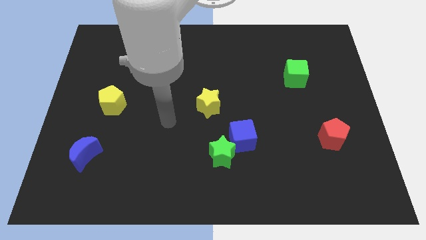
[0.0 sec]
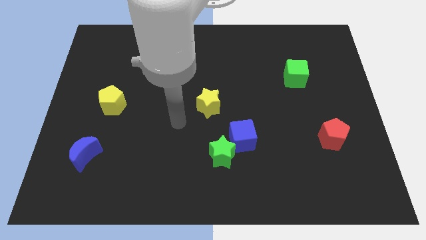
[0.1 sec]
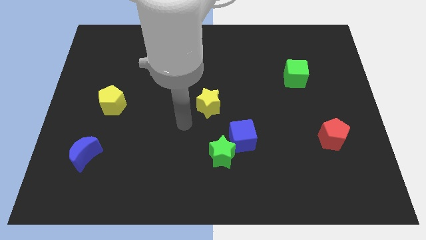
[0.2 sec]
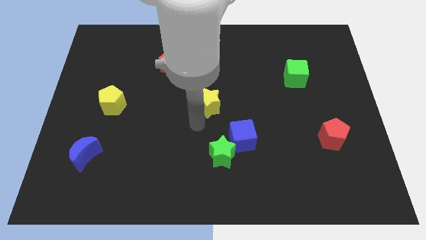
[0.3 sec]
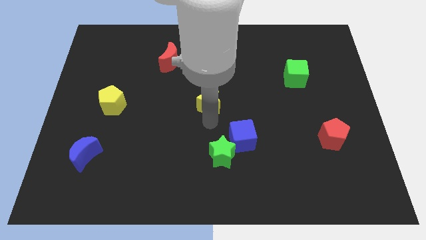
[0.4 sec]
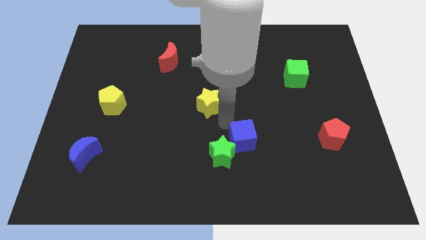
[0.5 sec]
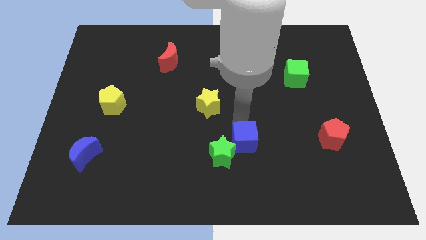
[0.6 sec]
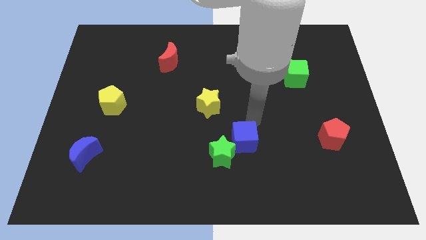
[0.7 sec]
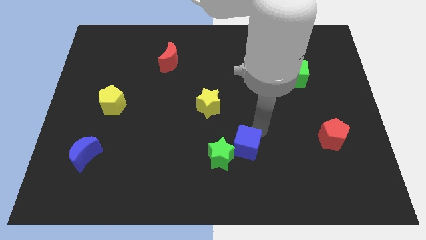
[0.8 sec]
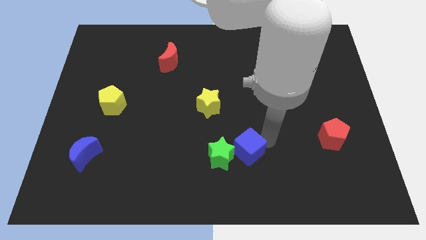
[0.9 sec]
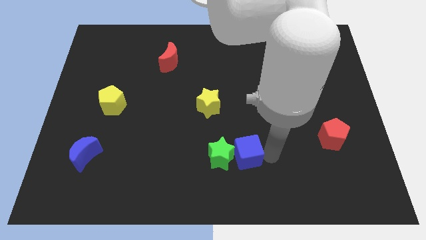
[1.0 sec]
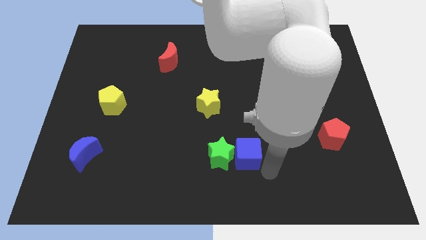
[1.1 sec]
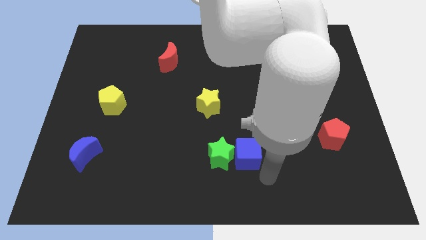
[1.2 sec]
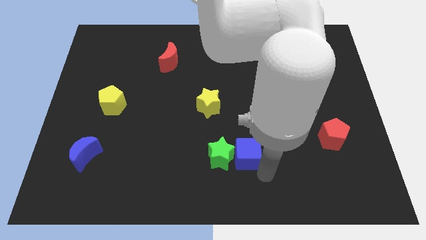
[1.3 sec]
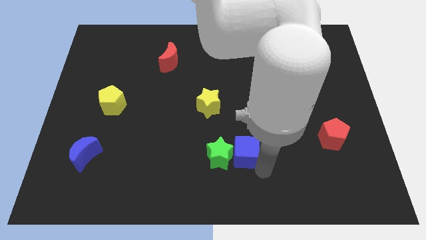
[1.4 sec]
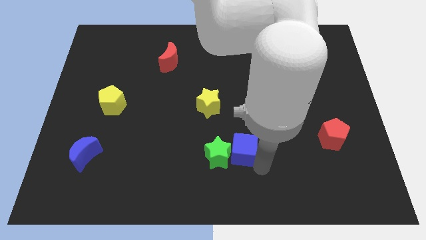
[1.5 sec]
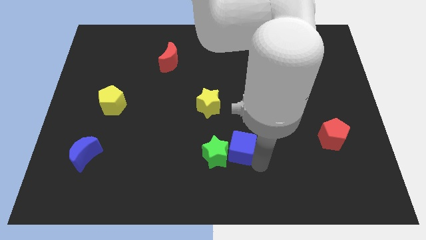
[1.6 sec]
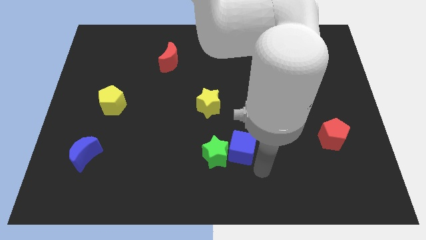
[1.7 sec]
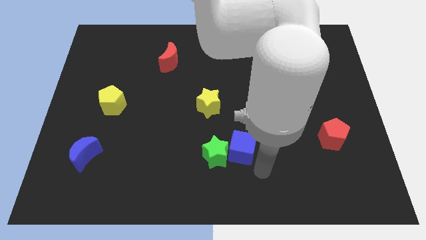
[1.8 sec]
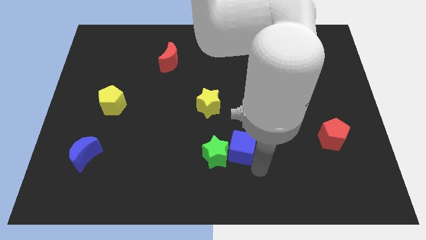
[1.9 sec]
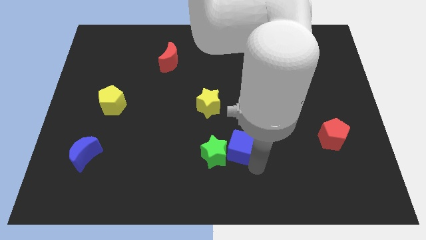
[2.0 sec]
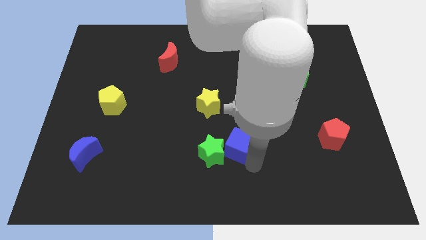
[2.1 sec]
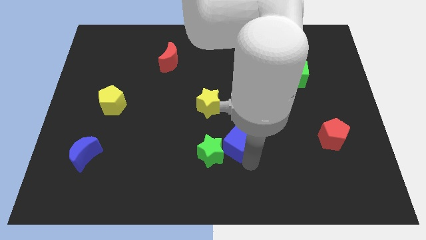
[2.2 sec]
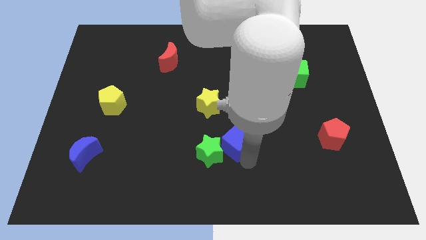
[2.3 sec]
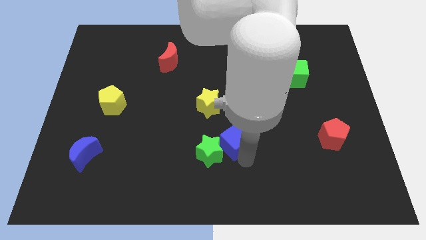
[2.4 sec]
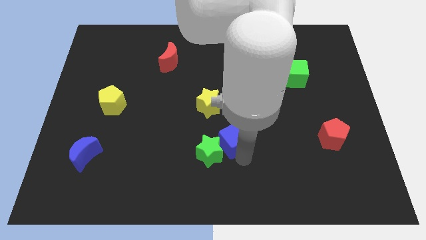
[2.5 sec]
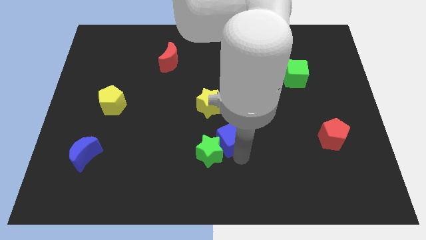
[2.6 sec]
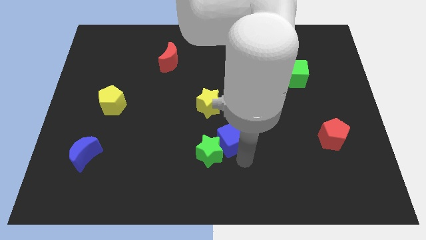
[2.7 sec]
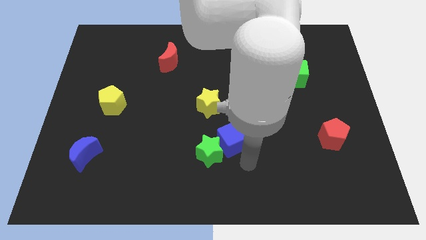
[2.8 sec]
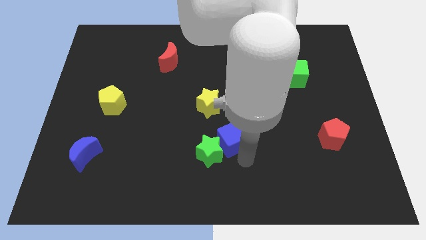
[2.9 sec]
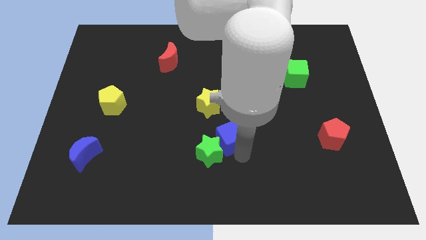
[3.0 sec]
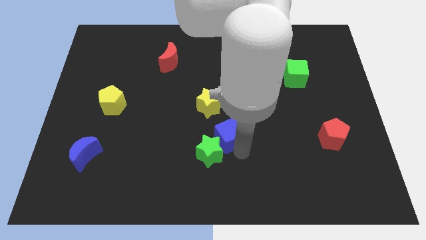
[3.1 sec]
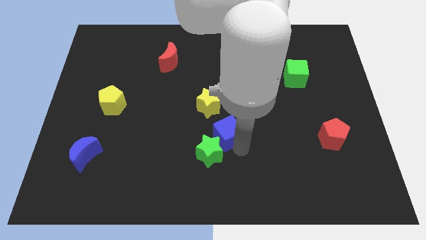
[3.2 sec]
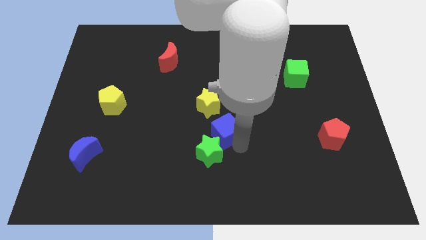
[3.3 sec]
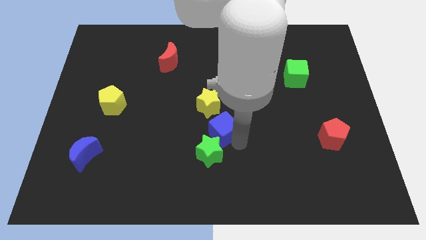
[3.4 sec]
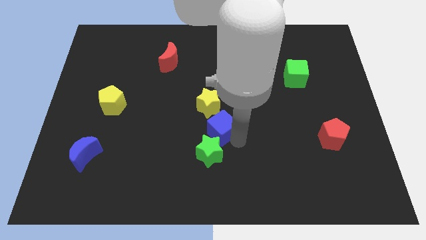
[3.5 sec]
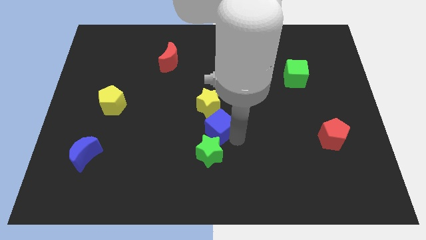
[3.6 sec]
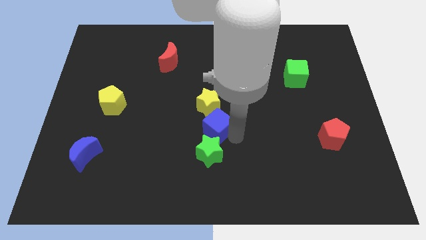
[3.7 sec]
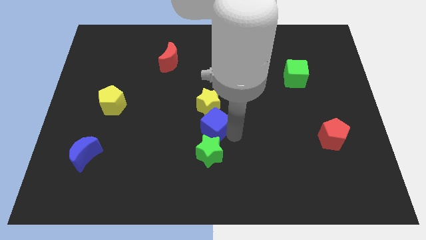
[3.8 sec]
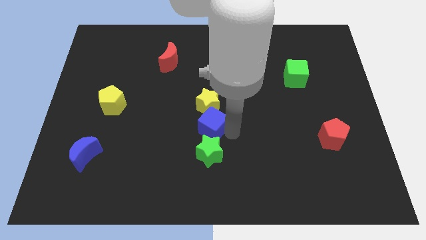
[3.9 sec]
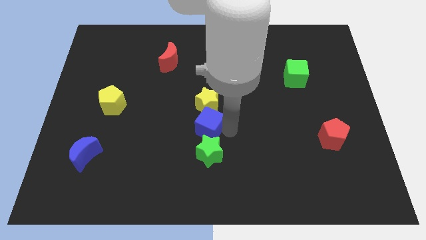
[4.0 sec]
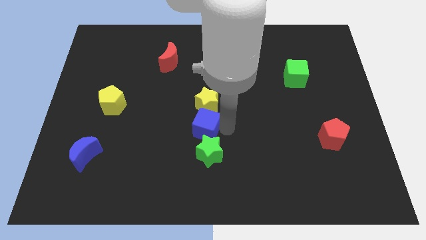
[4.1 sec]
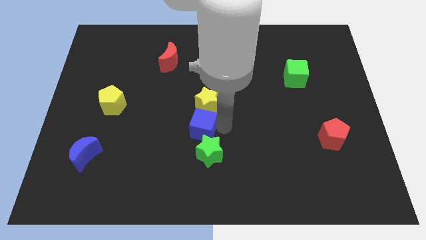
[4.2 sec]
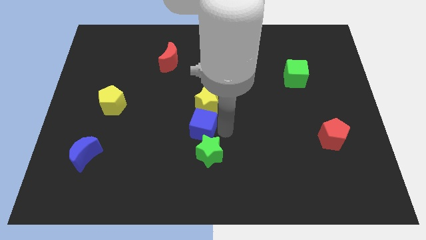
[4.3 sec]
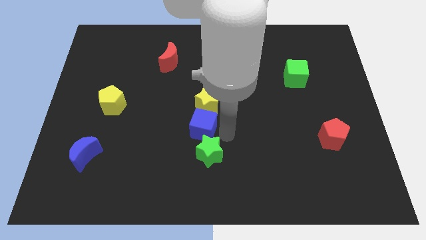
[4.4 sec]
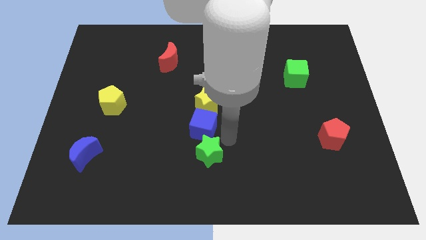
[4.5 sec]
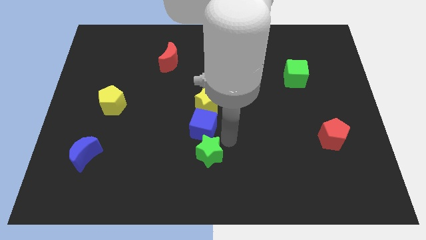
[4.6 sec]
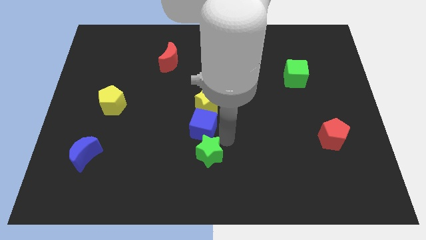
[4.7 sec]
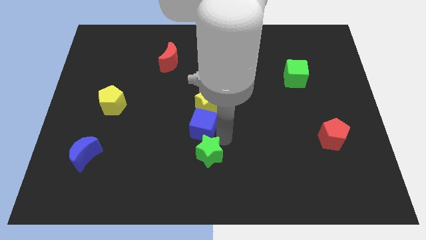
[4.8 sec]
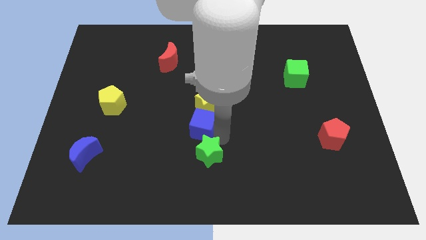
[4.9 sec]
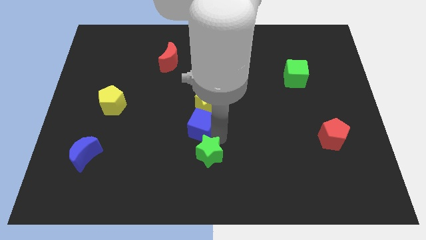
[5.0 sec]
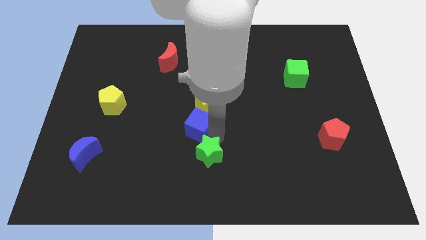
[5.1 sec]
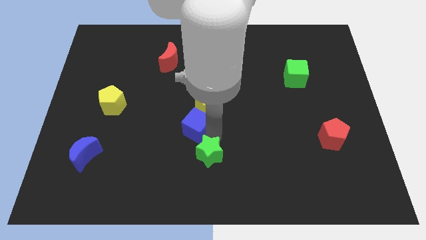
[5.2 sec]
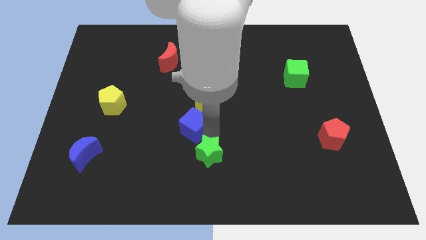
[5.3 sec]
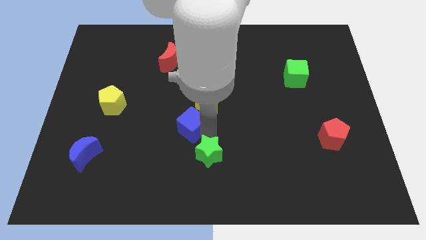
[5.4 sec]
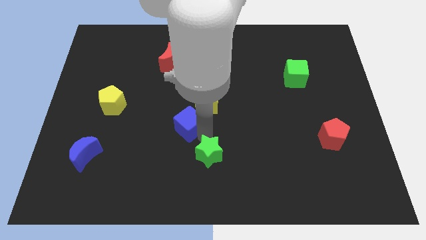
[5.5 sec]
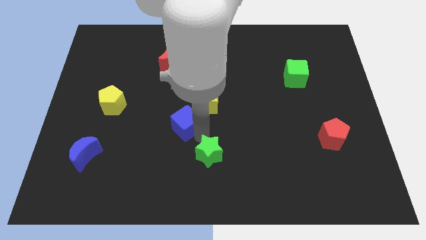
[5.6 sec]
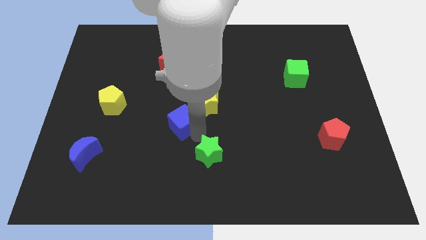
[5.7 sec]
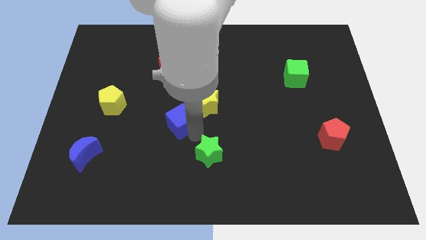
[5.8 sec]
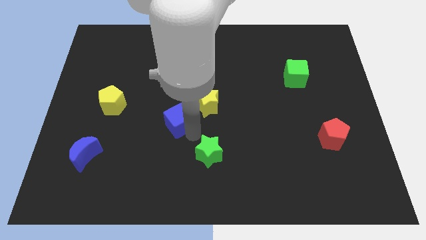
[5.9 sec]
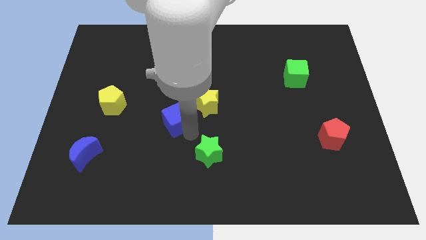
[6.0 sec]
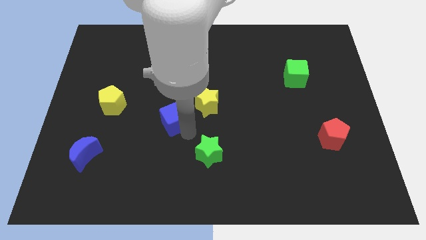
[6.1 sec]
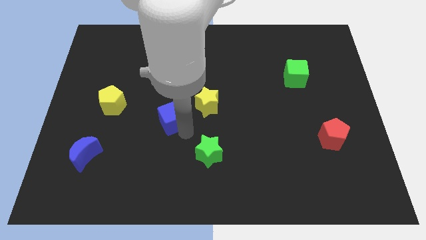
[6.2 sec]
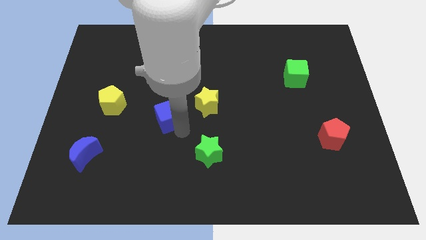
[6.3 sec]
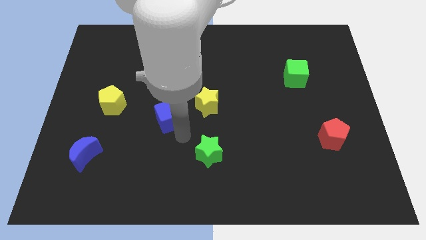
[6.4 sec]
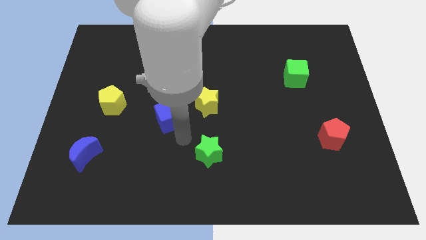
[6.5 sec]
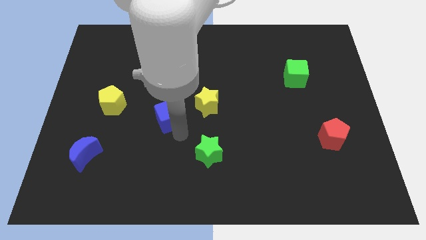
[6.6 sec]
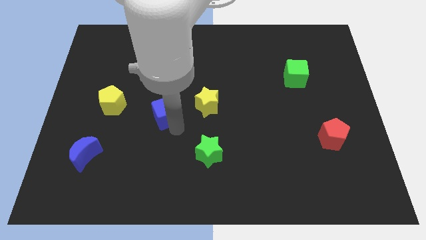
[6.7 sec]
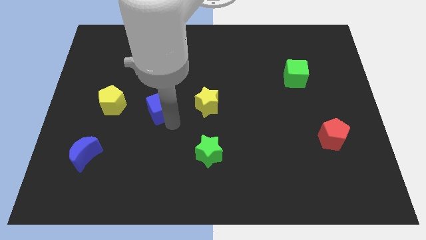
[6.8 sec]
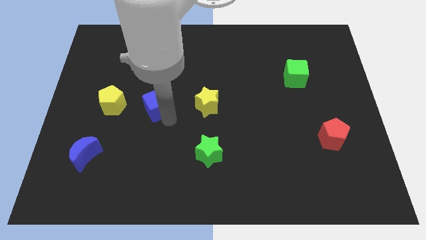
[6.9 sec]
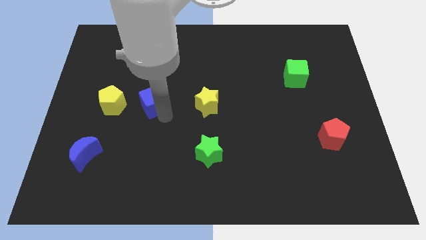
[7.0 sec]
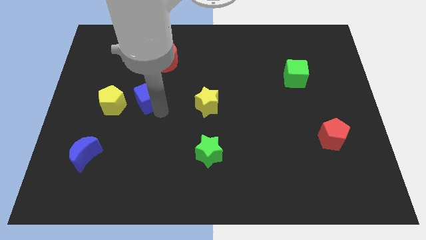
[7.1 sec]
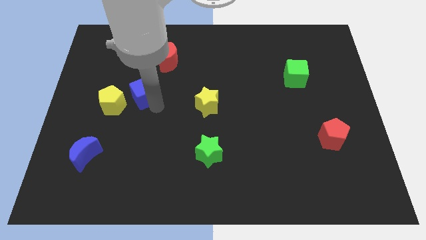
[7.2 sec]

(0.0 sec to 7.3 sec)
put the blue cube to the top right of the yellow pentagon
